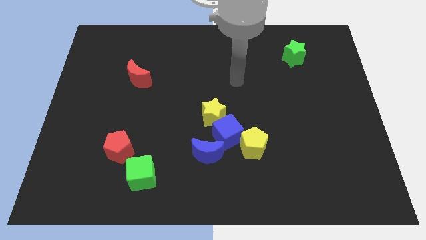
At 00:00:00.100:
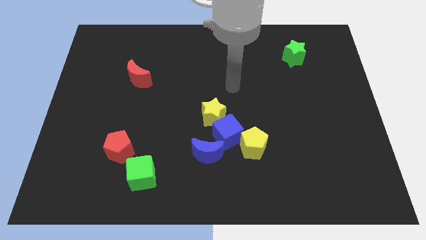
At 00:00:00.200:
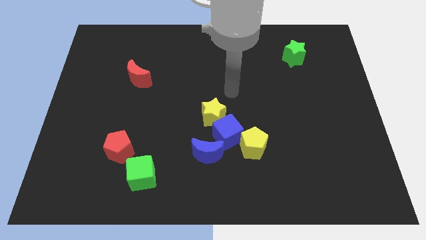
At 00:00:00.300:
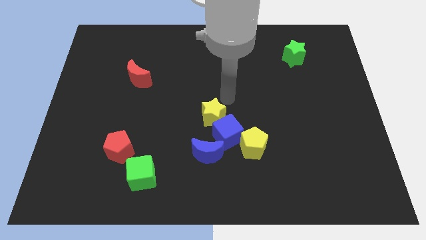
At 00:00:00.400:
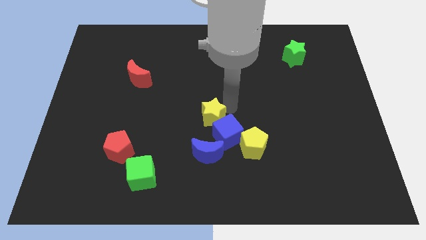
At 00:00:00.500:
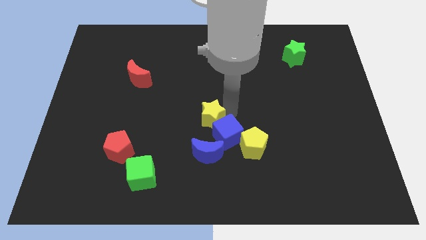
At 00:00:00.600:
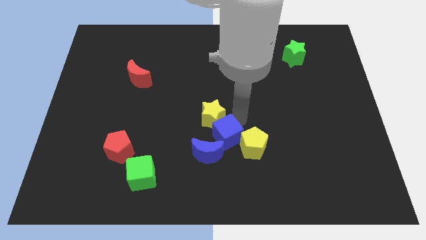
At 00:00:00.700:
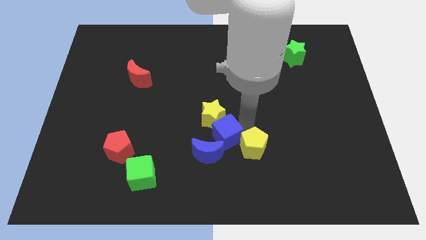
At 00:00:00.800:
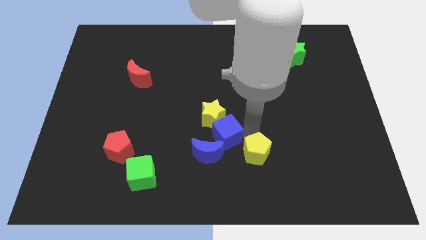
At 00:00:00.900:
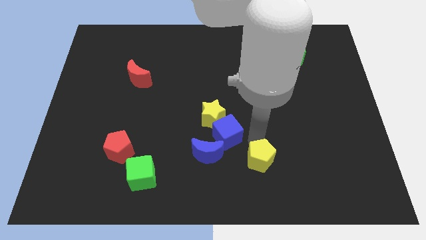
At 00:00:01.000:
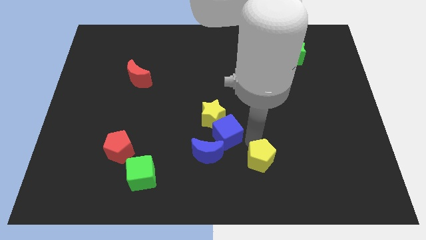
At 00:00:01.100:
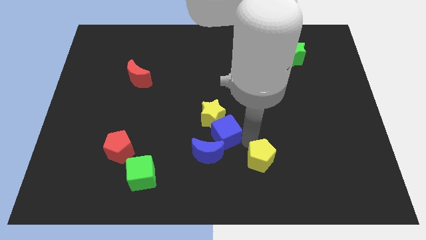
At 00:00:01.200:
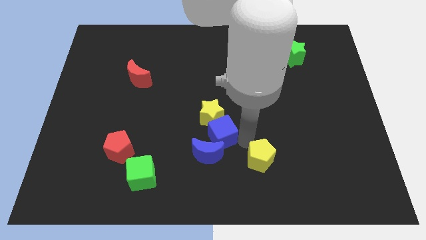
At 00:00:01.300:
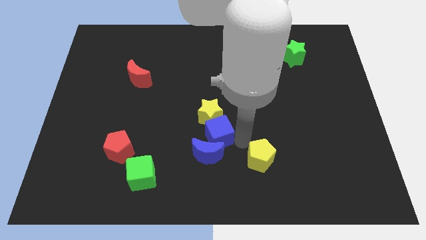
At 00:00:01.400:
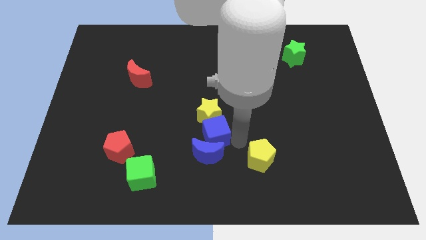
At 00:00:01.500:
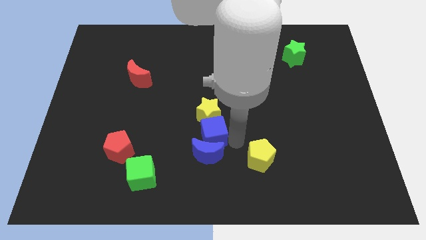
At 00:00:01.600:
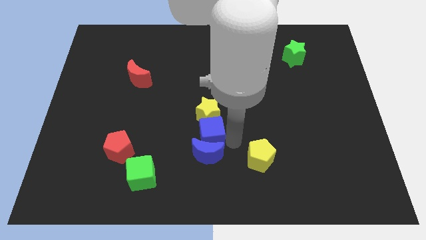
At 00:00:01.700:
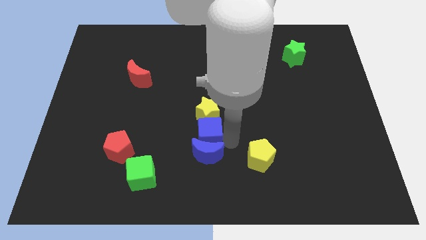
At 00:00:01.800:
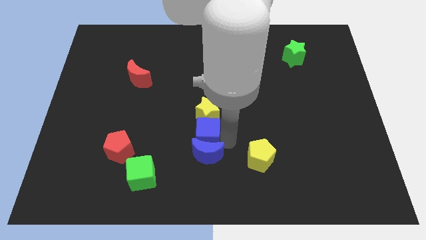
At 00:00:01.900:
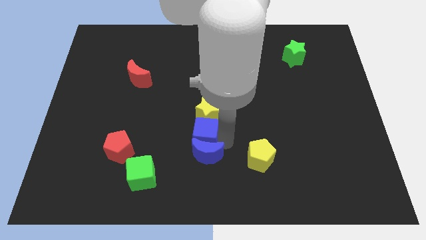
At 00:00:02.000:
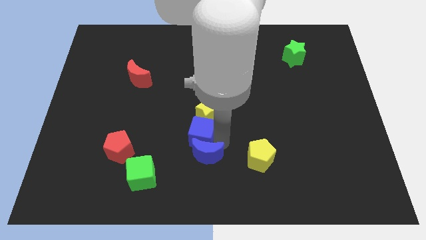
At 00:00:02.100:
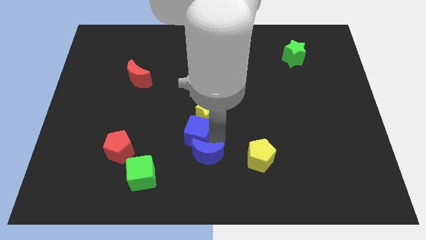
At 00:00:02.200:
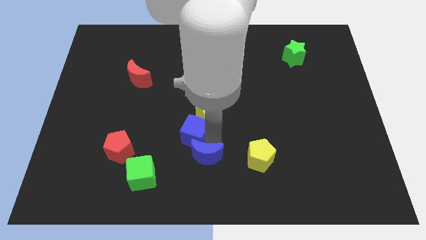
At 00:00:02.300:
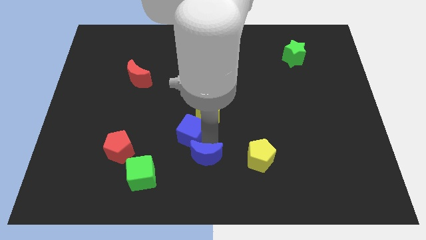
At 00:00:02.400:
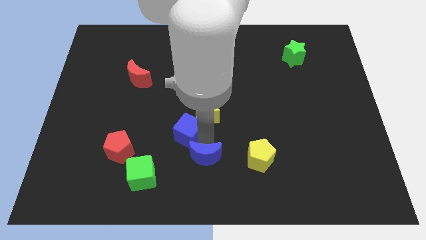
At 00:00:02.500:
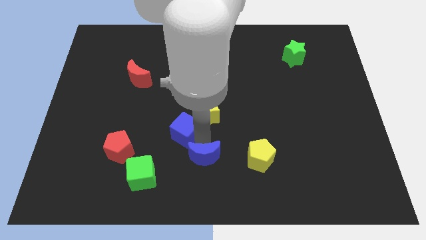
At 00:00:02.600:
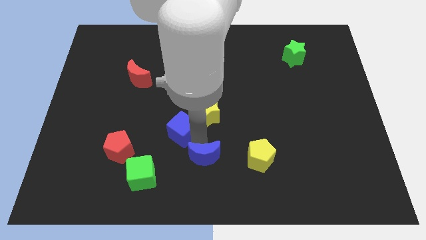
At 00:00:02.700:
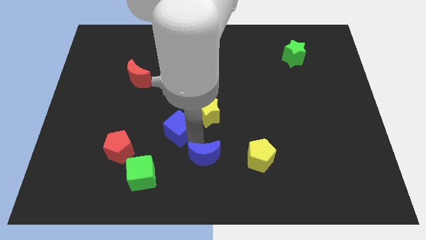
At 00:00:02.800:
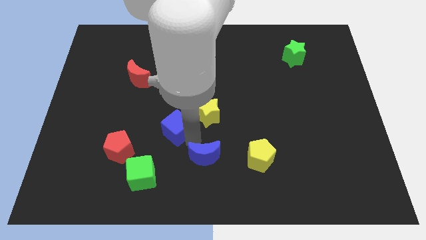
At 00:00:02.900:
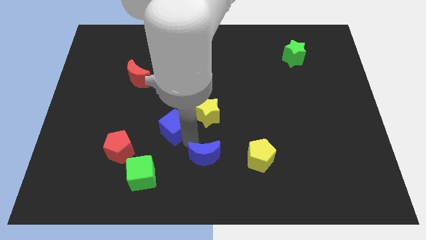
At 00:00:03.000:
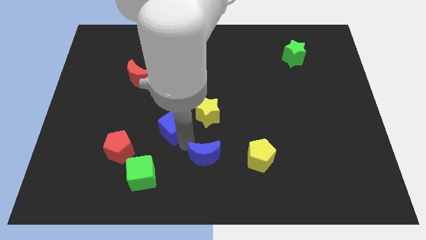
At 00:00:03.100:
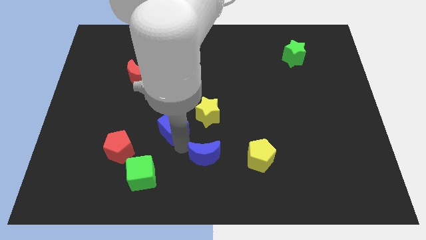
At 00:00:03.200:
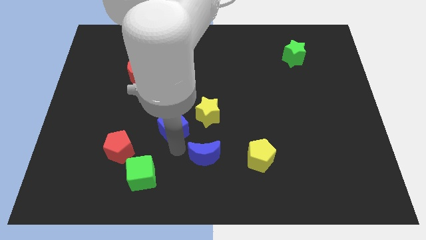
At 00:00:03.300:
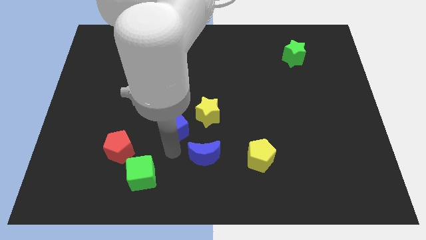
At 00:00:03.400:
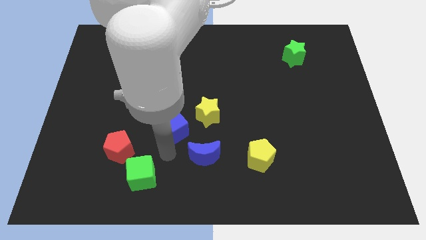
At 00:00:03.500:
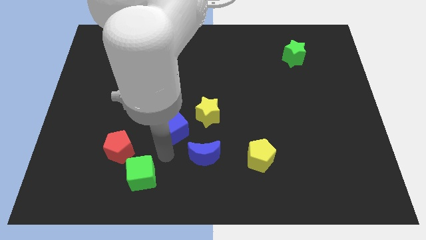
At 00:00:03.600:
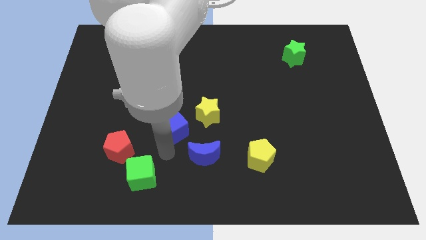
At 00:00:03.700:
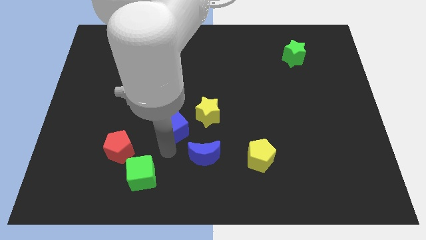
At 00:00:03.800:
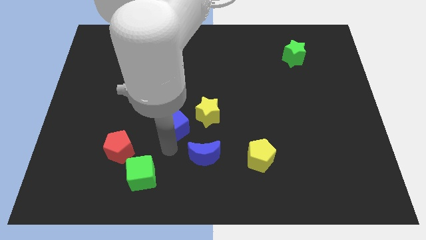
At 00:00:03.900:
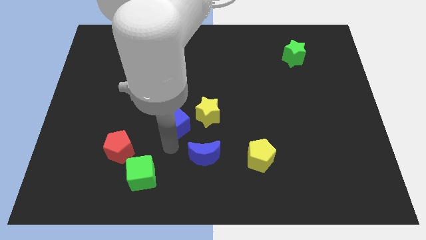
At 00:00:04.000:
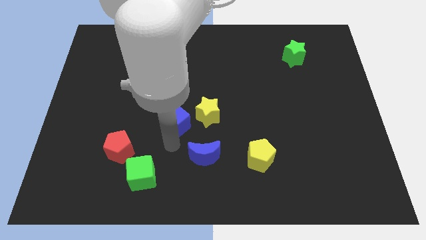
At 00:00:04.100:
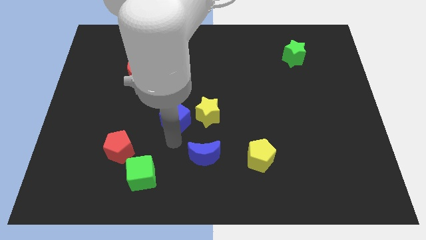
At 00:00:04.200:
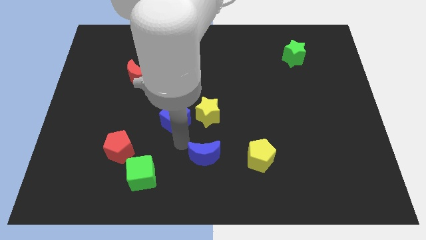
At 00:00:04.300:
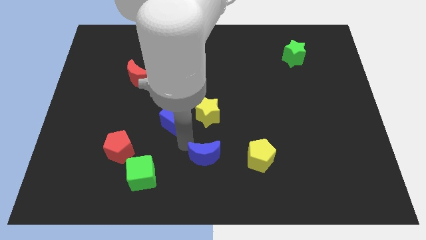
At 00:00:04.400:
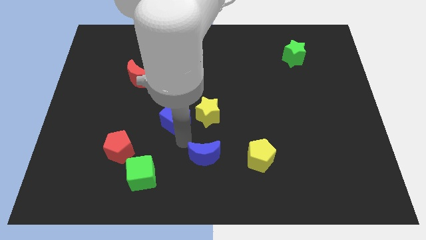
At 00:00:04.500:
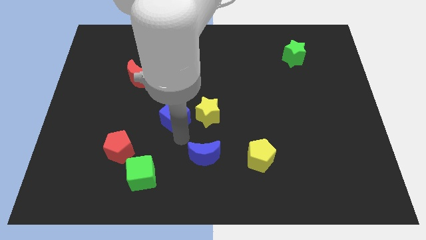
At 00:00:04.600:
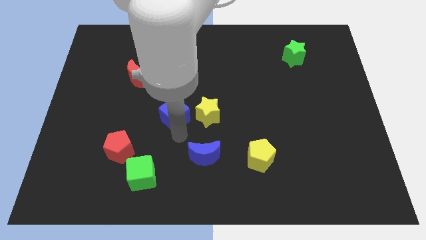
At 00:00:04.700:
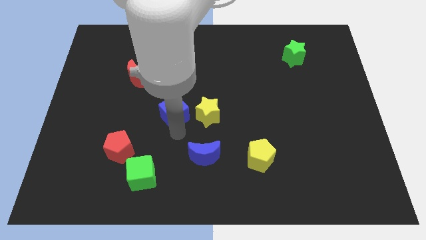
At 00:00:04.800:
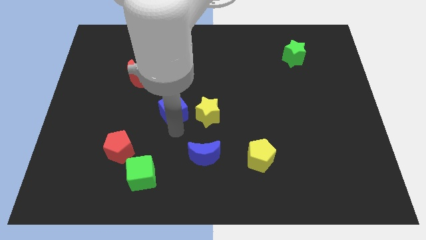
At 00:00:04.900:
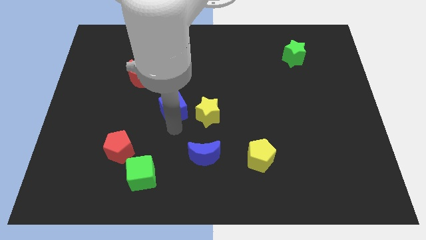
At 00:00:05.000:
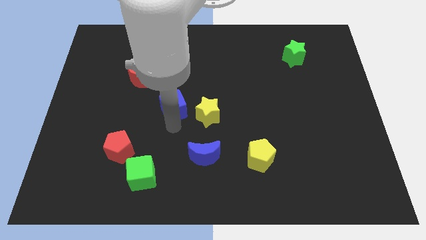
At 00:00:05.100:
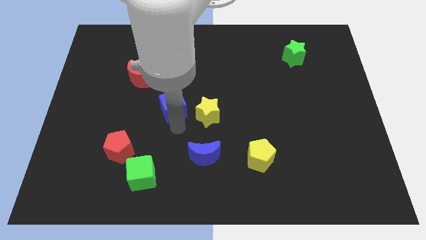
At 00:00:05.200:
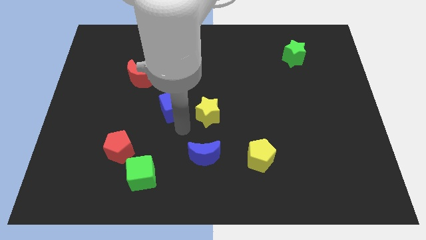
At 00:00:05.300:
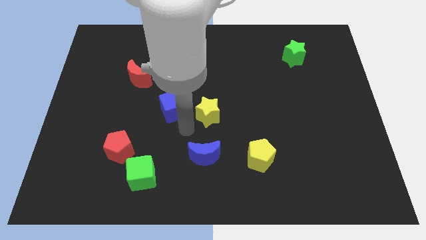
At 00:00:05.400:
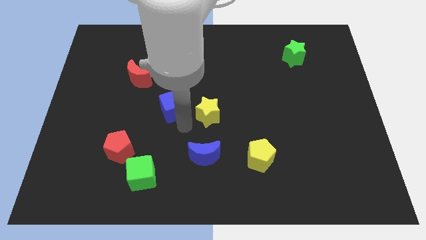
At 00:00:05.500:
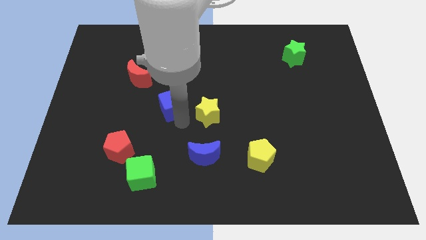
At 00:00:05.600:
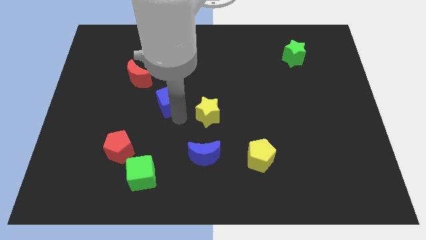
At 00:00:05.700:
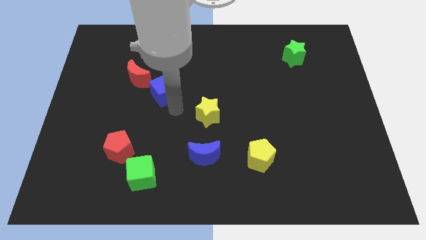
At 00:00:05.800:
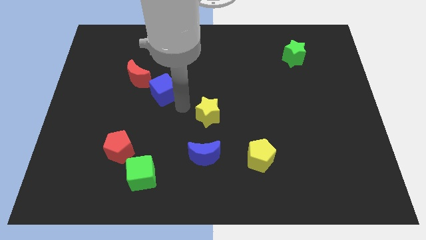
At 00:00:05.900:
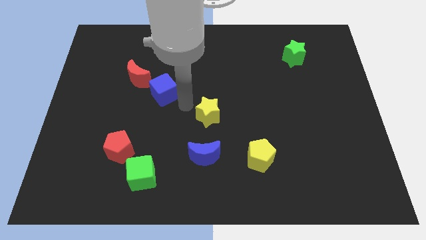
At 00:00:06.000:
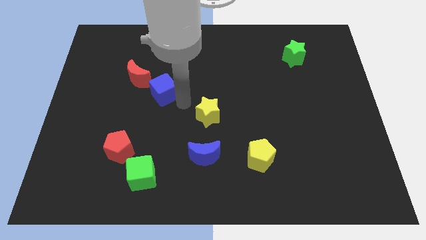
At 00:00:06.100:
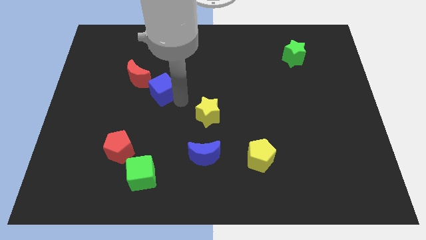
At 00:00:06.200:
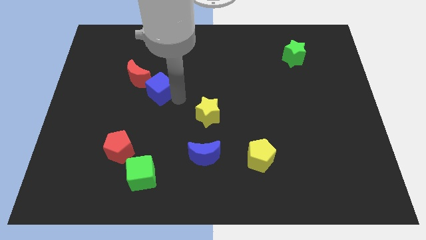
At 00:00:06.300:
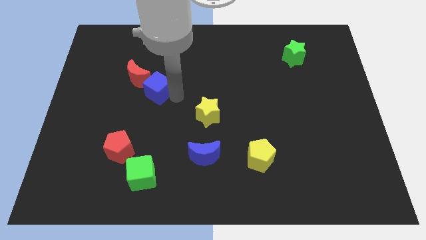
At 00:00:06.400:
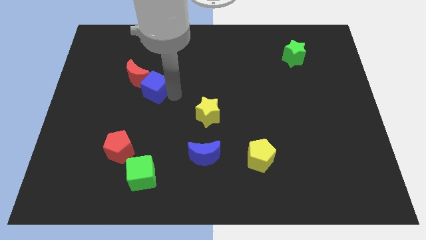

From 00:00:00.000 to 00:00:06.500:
push the blue cube towards the red moon
